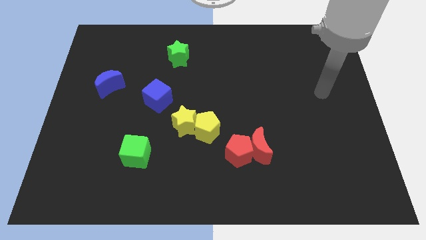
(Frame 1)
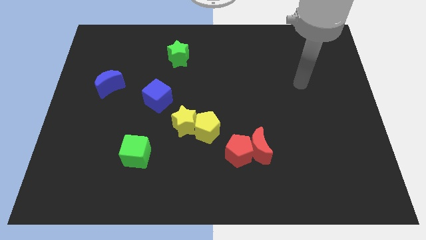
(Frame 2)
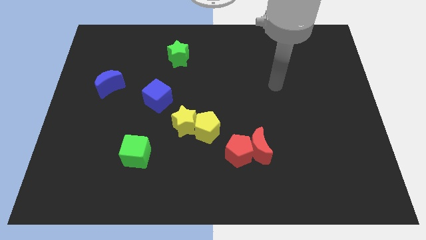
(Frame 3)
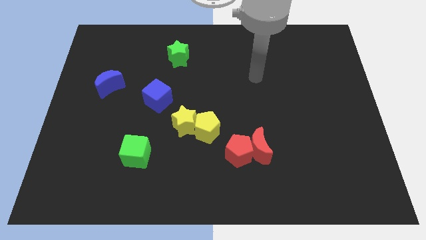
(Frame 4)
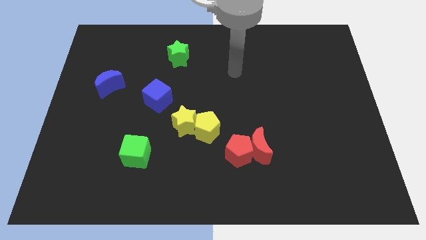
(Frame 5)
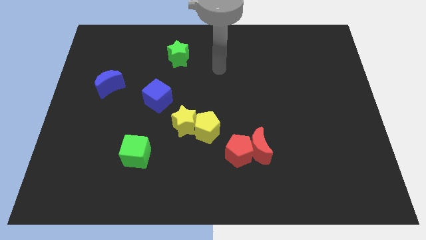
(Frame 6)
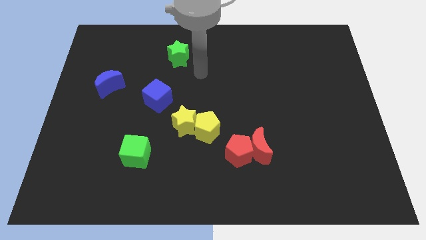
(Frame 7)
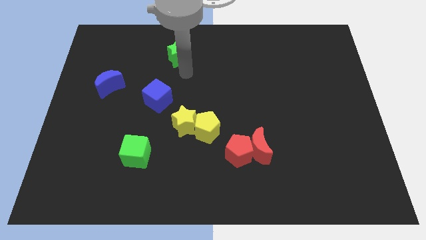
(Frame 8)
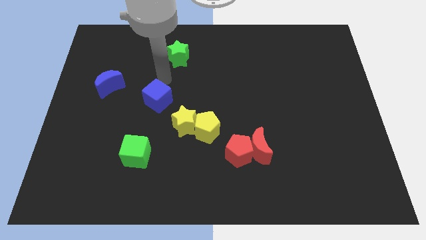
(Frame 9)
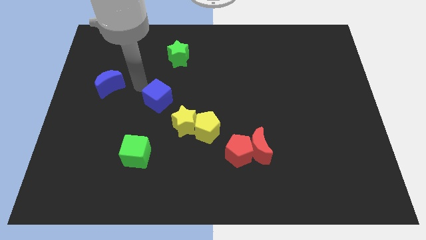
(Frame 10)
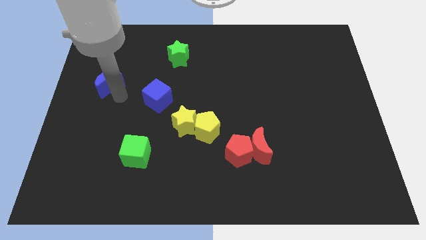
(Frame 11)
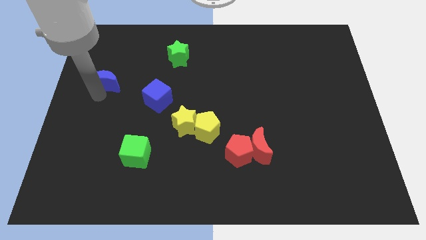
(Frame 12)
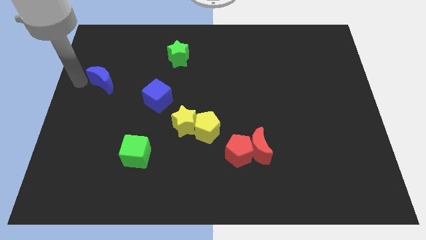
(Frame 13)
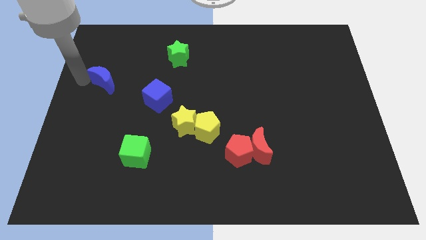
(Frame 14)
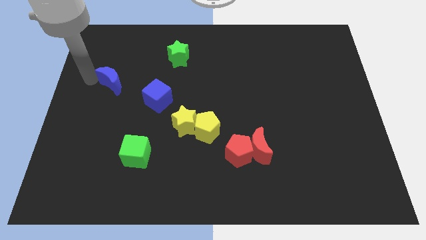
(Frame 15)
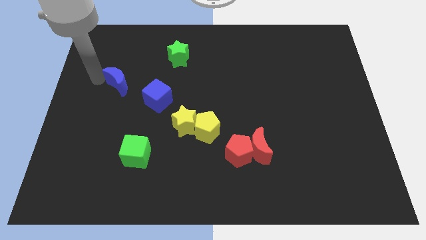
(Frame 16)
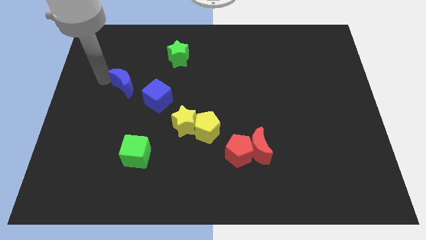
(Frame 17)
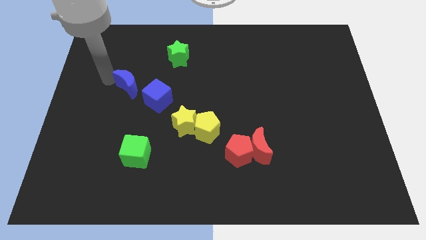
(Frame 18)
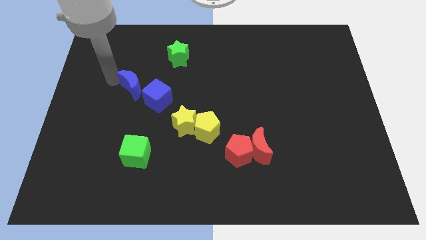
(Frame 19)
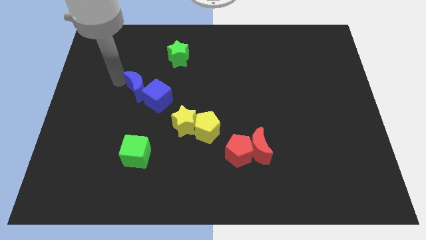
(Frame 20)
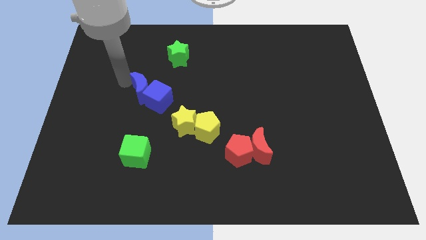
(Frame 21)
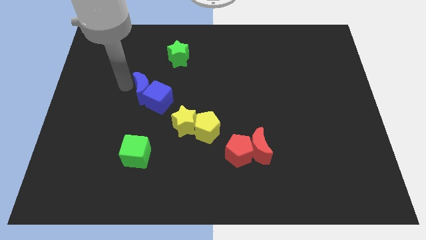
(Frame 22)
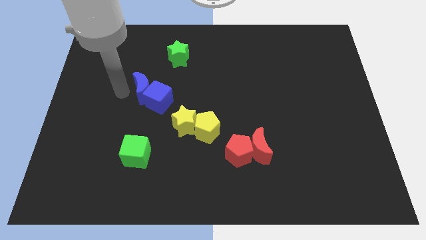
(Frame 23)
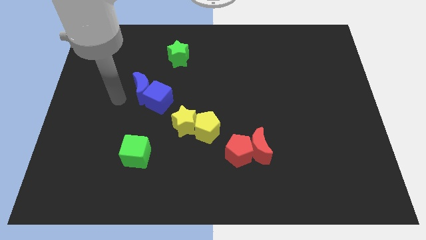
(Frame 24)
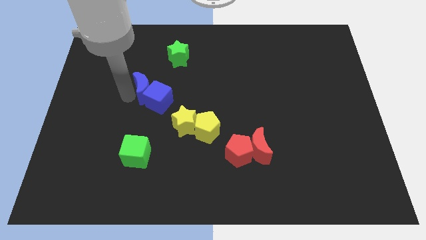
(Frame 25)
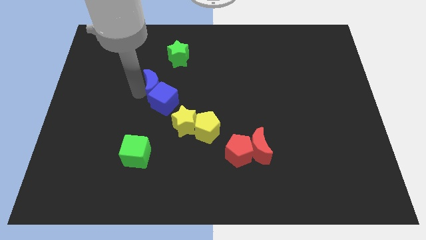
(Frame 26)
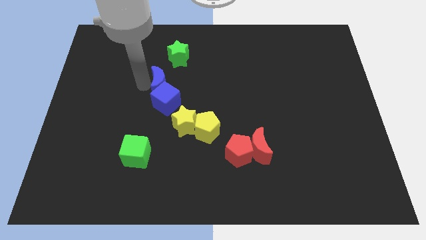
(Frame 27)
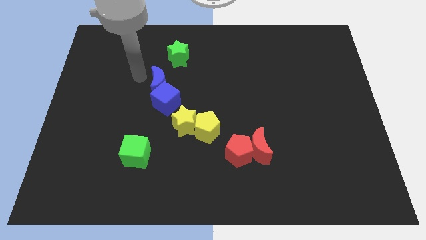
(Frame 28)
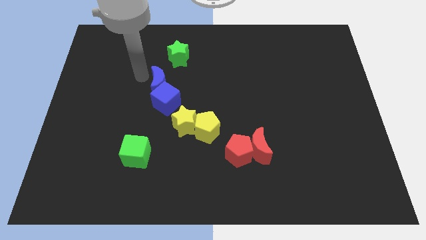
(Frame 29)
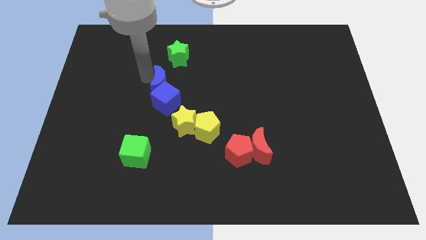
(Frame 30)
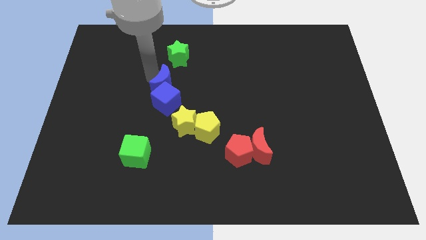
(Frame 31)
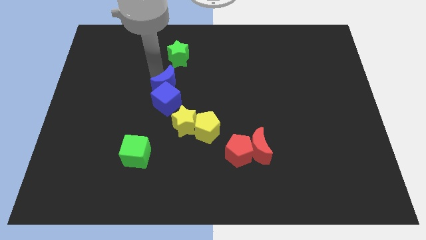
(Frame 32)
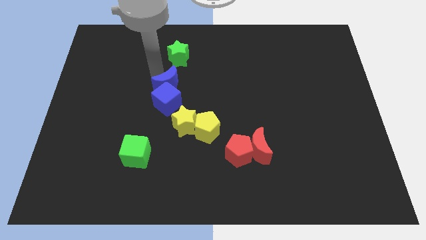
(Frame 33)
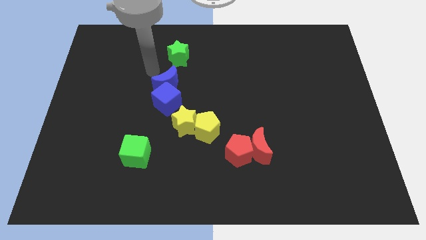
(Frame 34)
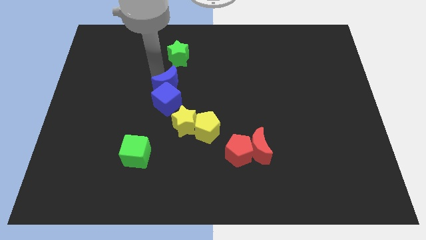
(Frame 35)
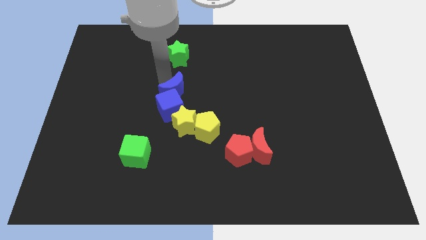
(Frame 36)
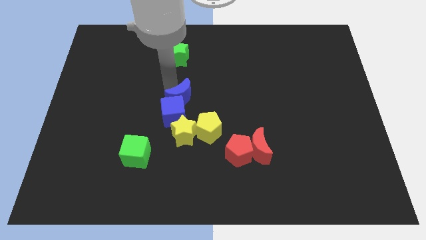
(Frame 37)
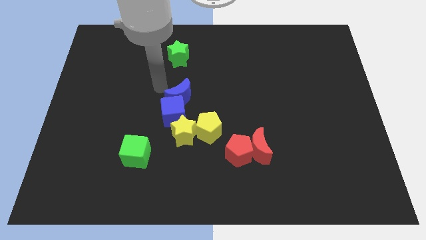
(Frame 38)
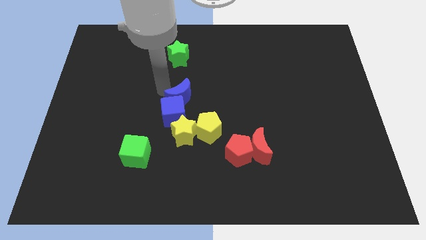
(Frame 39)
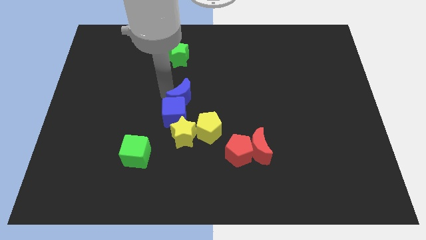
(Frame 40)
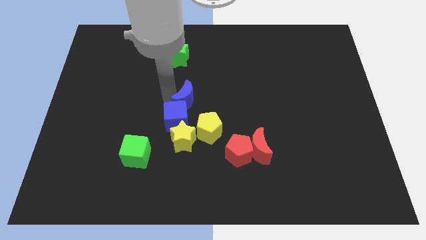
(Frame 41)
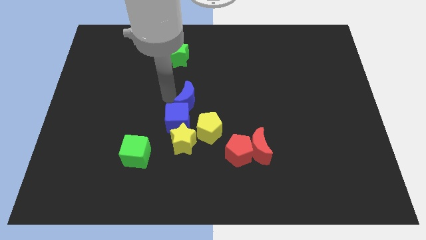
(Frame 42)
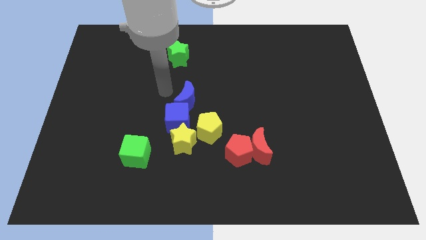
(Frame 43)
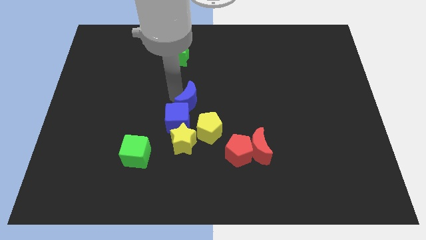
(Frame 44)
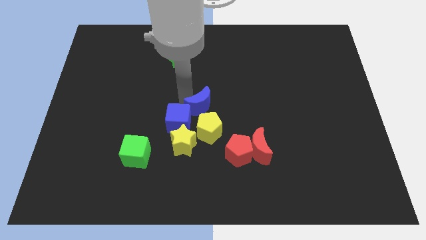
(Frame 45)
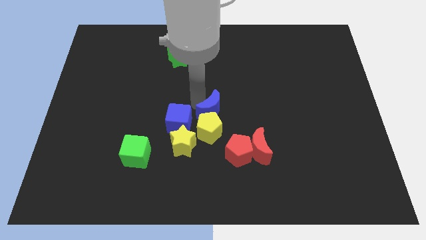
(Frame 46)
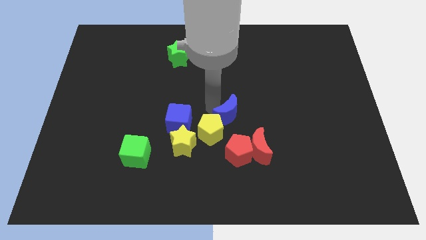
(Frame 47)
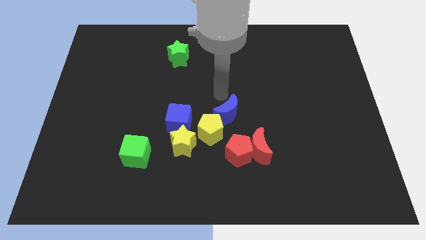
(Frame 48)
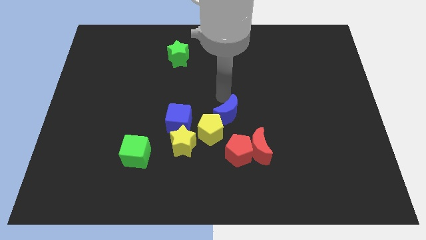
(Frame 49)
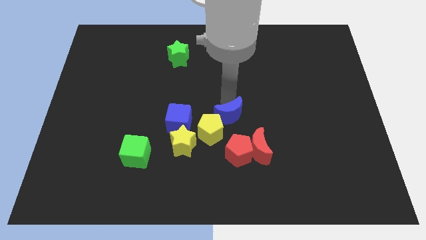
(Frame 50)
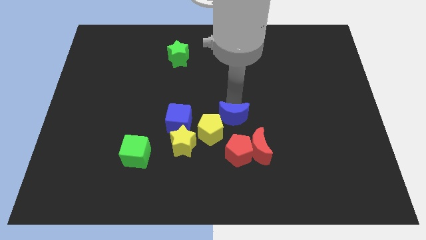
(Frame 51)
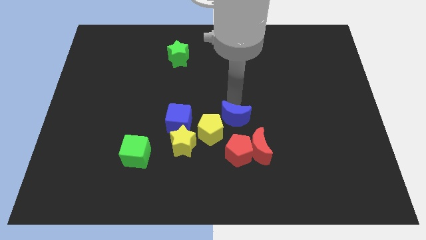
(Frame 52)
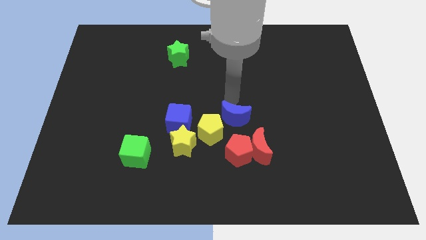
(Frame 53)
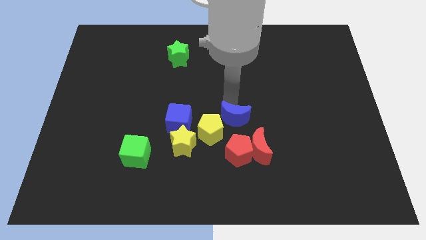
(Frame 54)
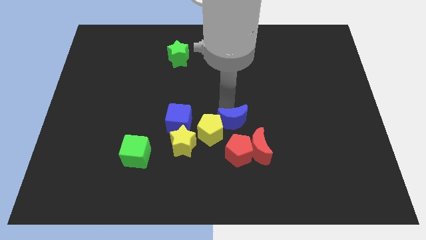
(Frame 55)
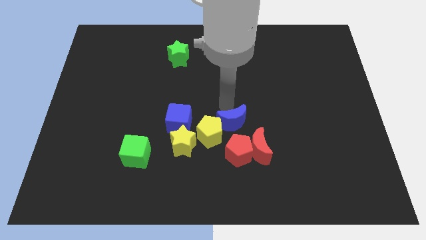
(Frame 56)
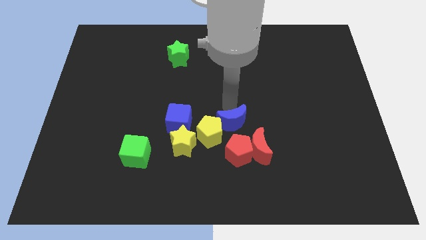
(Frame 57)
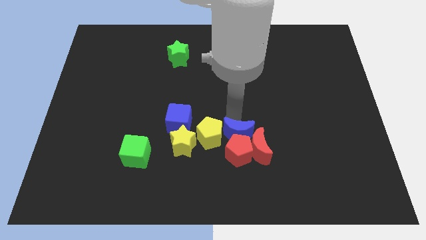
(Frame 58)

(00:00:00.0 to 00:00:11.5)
push the blue moon close to the red pentagon
